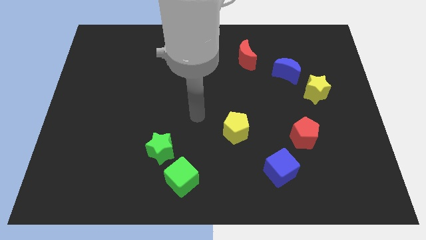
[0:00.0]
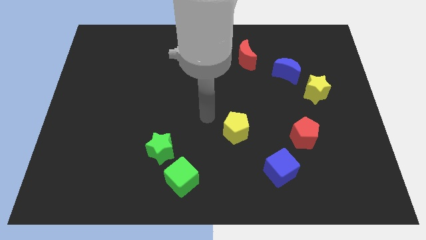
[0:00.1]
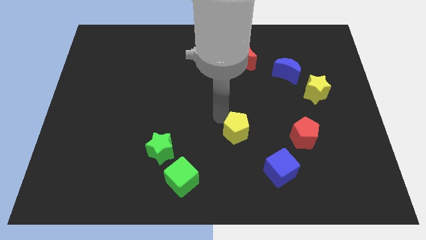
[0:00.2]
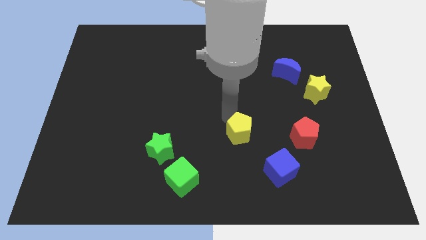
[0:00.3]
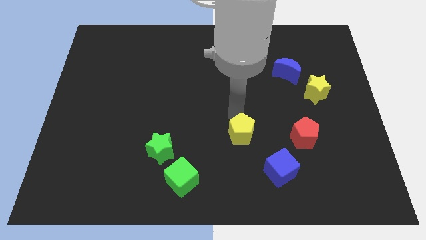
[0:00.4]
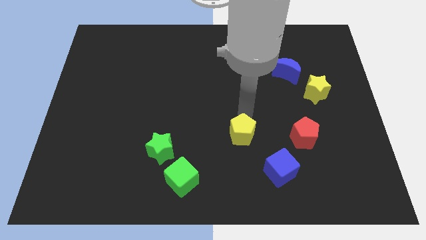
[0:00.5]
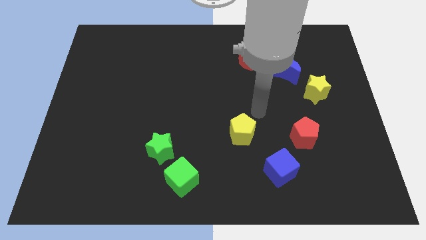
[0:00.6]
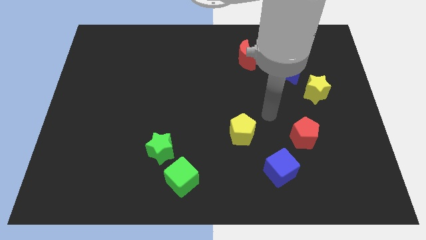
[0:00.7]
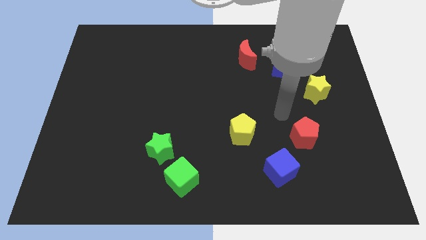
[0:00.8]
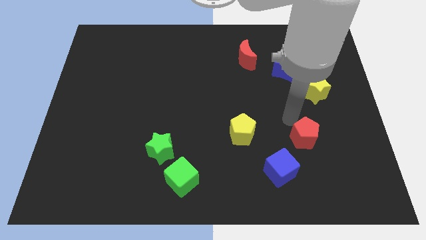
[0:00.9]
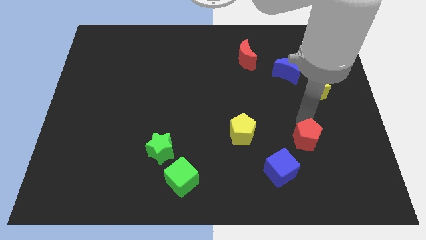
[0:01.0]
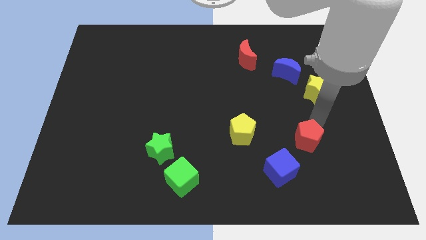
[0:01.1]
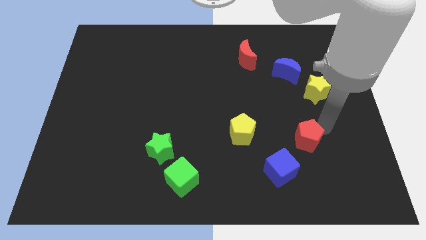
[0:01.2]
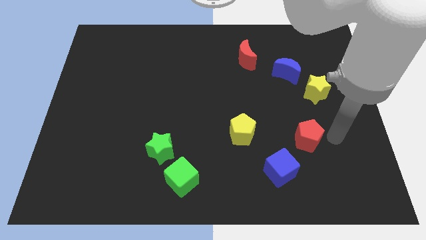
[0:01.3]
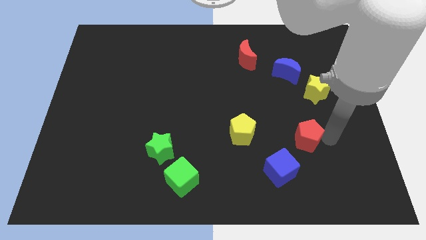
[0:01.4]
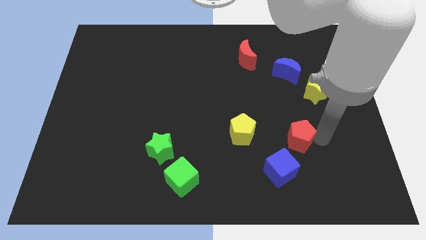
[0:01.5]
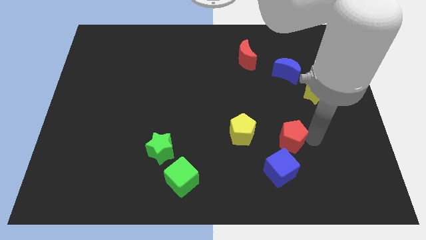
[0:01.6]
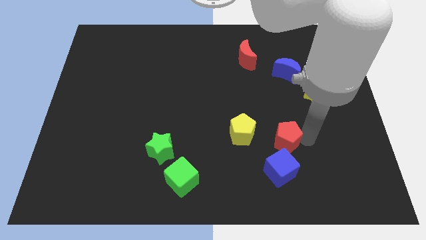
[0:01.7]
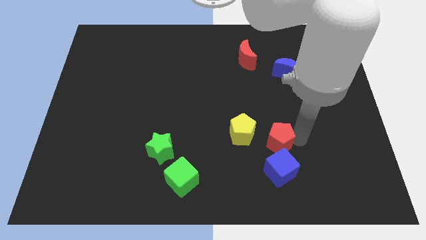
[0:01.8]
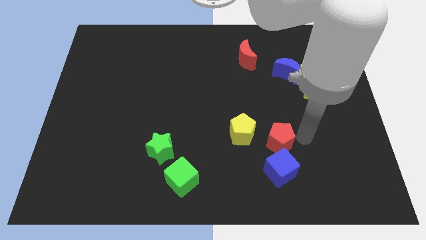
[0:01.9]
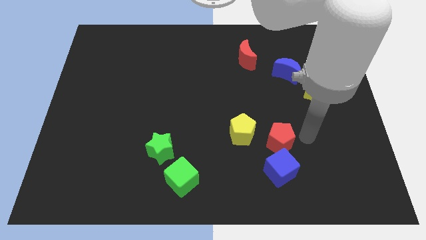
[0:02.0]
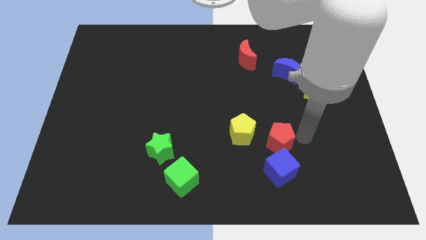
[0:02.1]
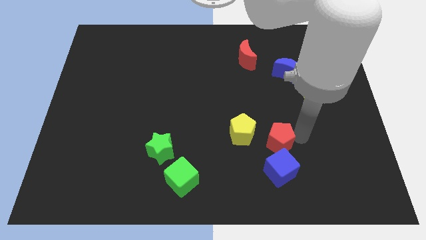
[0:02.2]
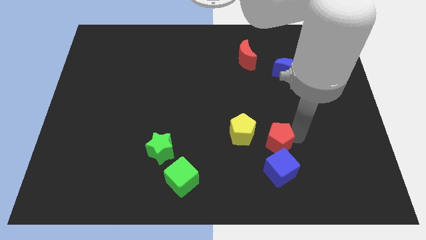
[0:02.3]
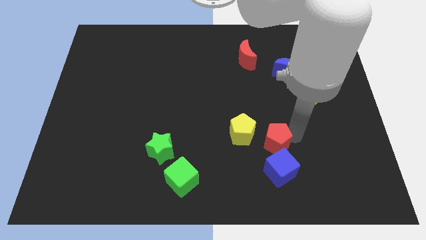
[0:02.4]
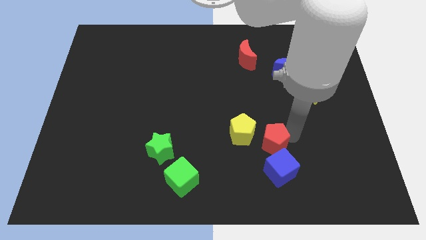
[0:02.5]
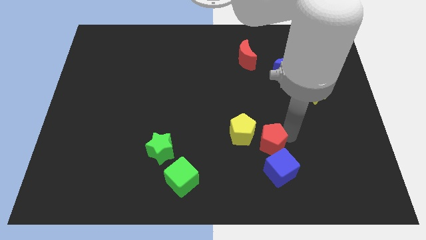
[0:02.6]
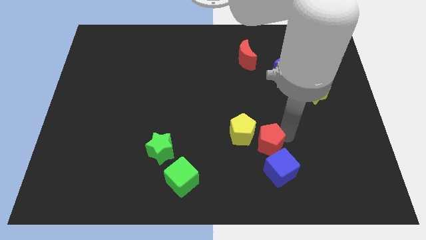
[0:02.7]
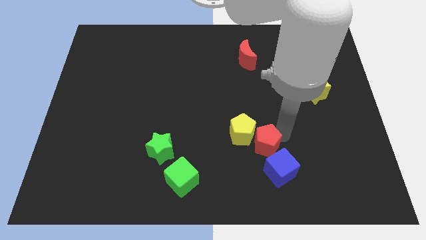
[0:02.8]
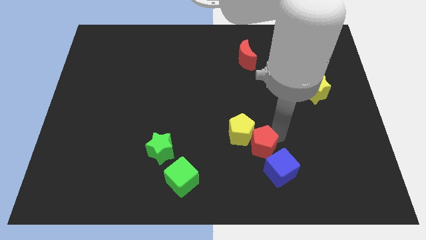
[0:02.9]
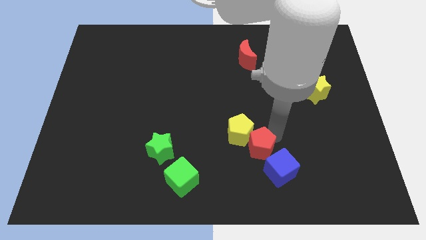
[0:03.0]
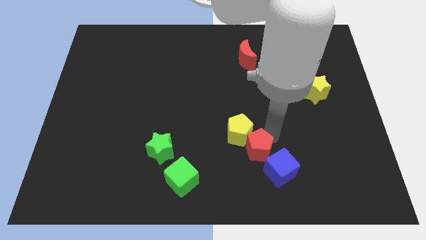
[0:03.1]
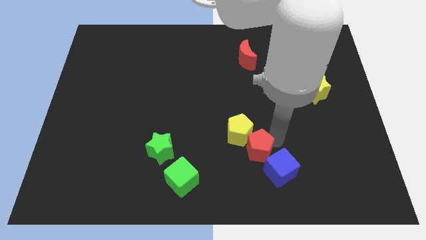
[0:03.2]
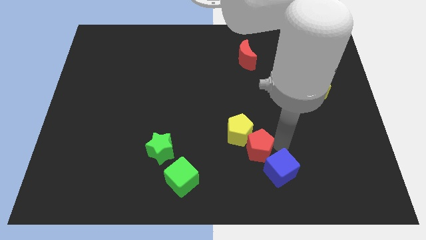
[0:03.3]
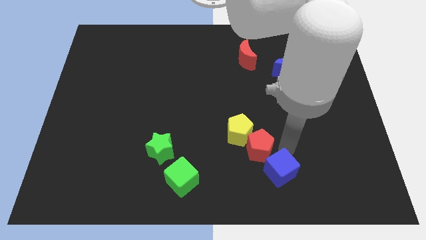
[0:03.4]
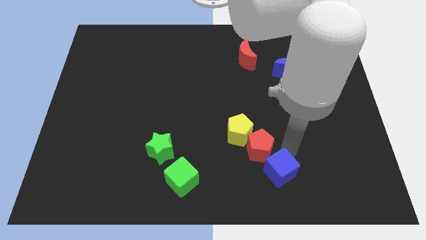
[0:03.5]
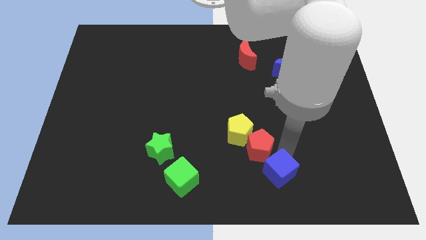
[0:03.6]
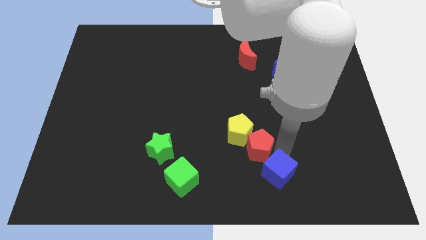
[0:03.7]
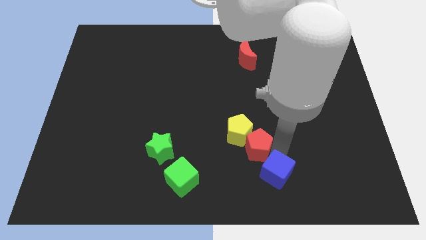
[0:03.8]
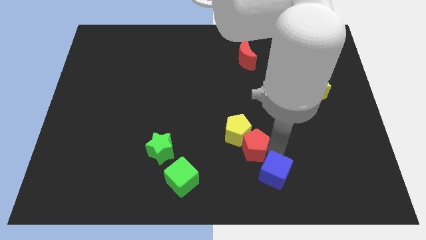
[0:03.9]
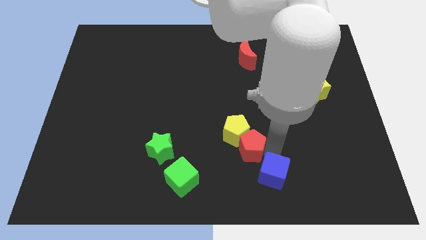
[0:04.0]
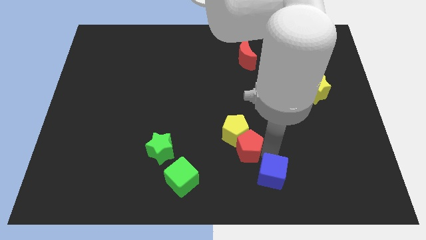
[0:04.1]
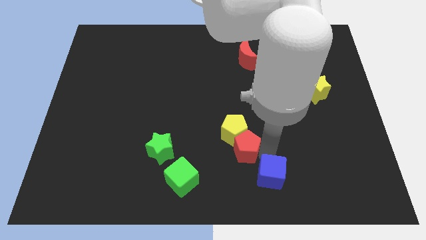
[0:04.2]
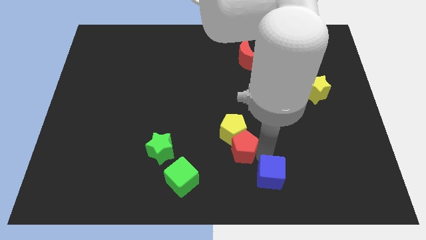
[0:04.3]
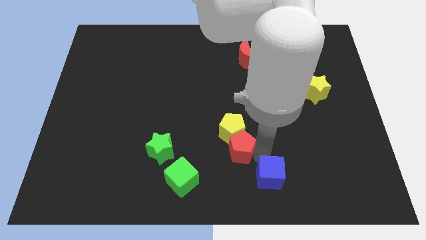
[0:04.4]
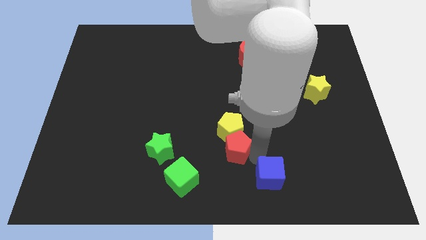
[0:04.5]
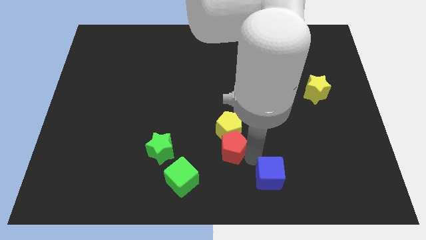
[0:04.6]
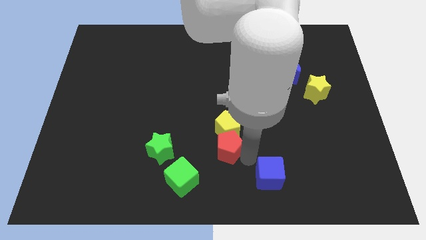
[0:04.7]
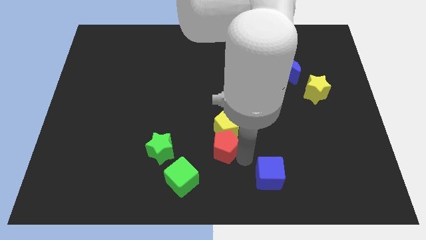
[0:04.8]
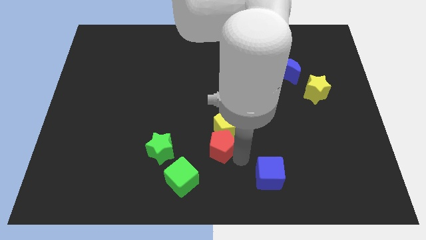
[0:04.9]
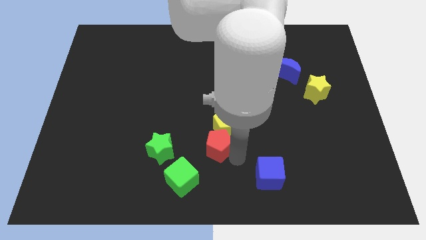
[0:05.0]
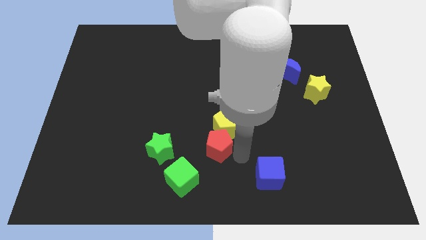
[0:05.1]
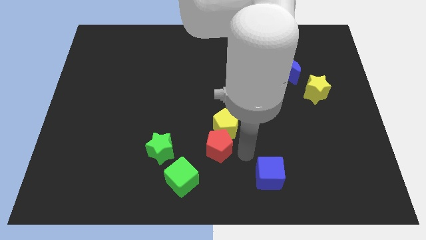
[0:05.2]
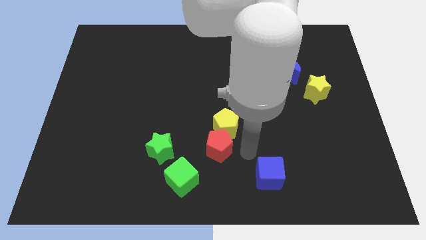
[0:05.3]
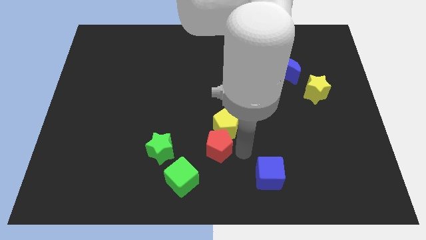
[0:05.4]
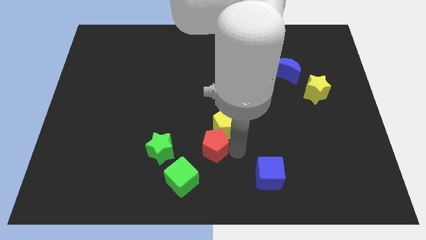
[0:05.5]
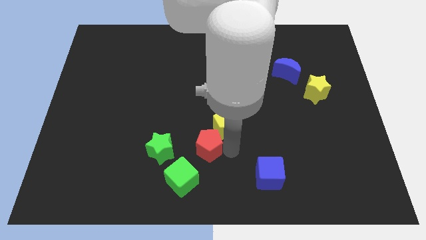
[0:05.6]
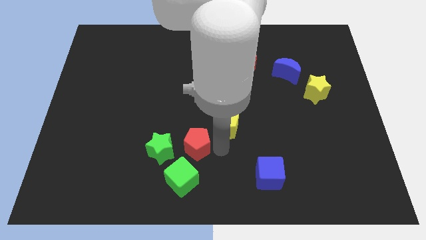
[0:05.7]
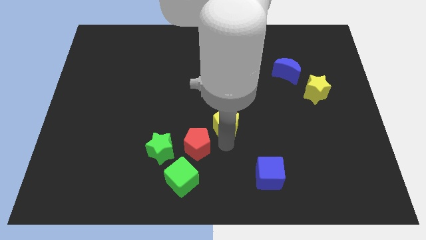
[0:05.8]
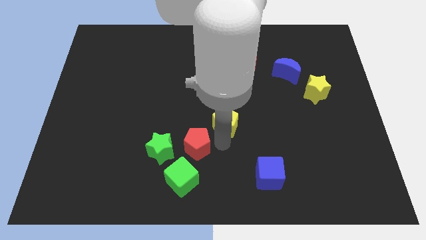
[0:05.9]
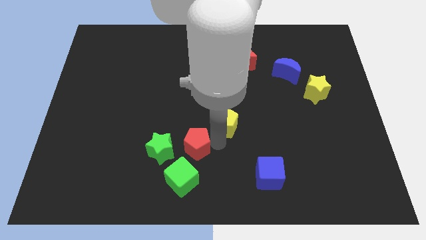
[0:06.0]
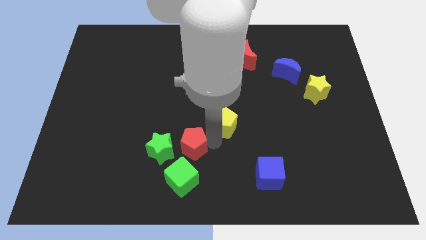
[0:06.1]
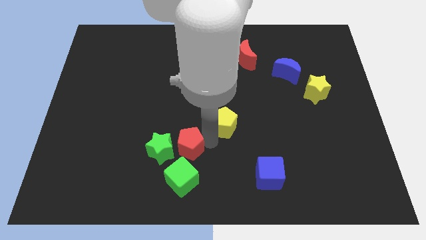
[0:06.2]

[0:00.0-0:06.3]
put the red pentagon to the green star
